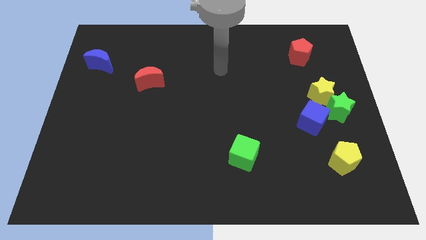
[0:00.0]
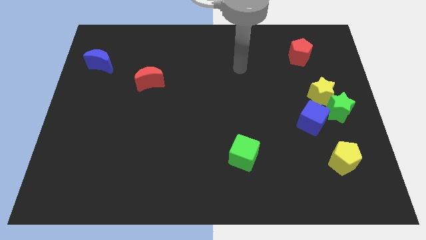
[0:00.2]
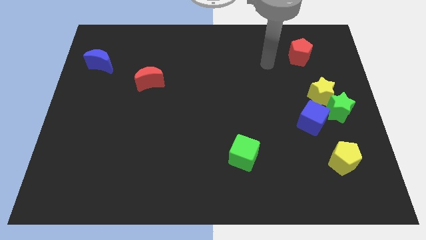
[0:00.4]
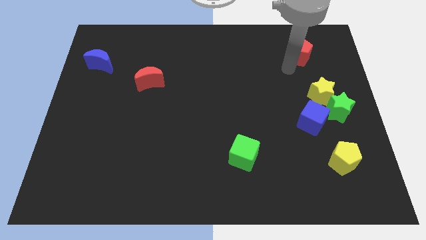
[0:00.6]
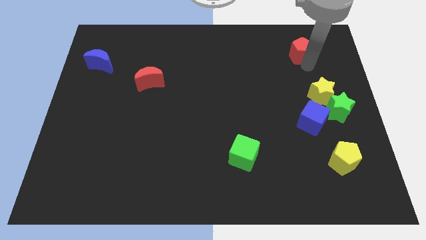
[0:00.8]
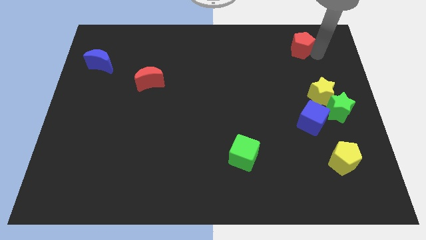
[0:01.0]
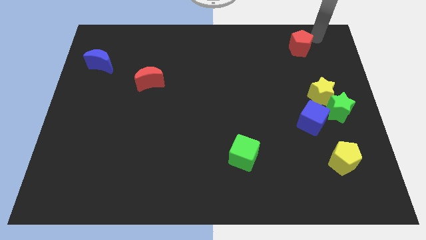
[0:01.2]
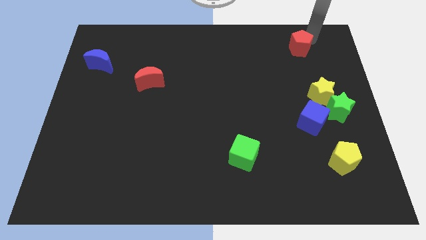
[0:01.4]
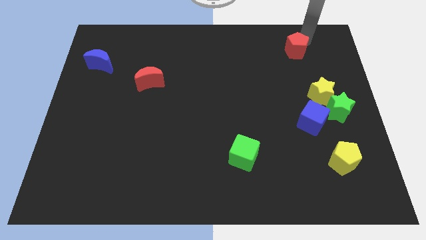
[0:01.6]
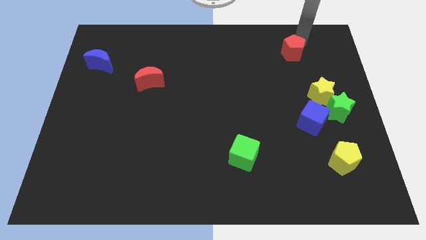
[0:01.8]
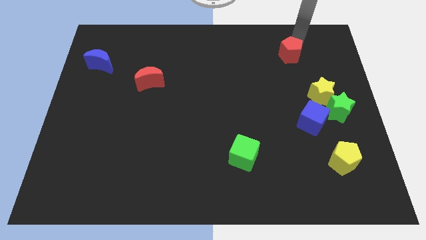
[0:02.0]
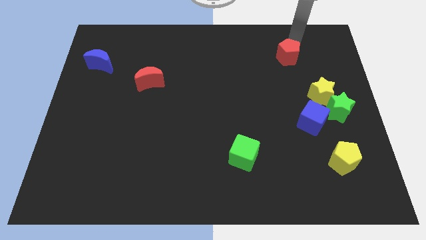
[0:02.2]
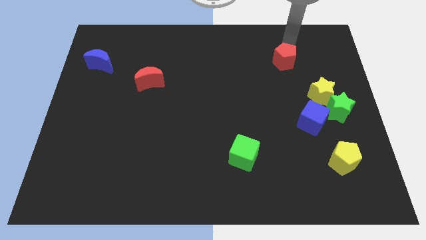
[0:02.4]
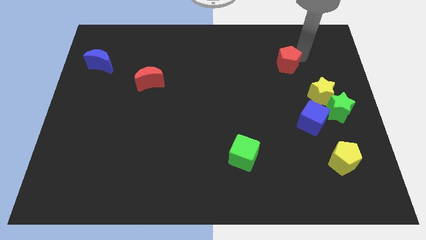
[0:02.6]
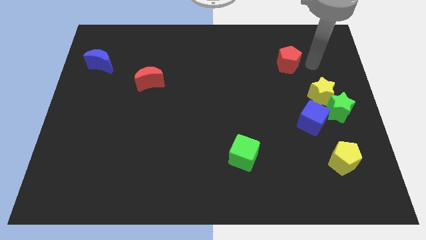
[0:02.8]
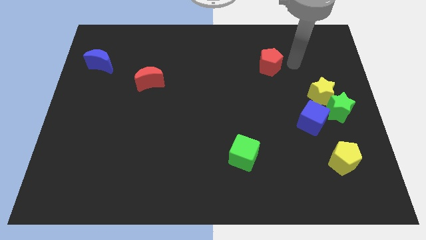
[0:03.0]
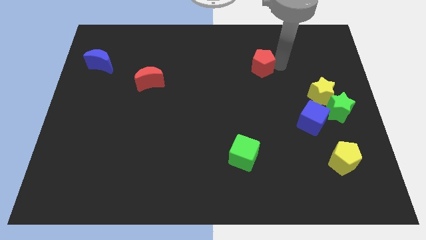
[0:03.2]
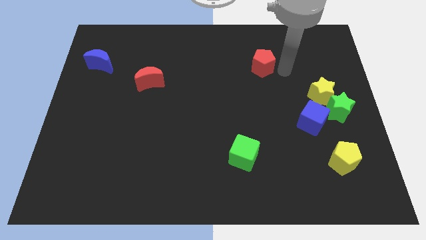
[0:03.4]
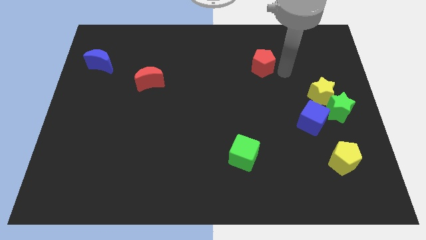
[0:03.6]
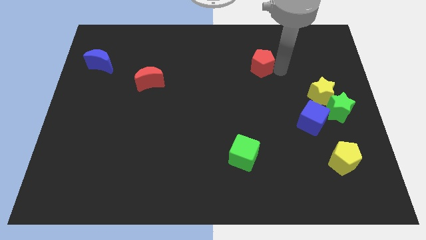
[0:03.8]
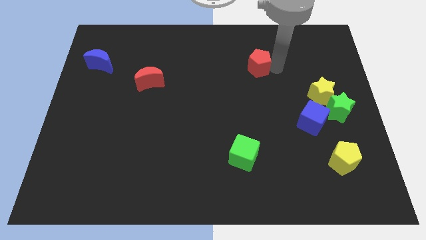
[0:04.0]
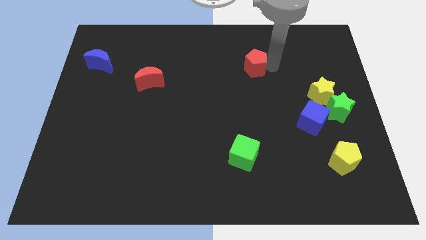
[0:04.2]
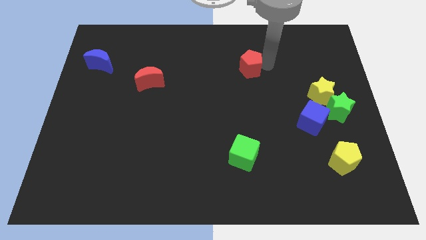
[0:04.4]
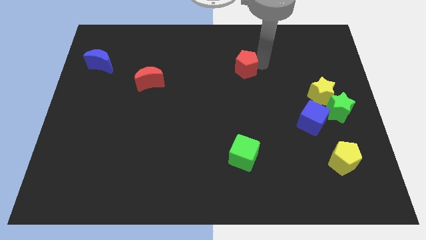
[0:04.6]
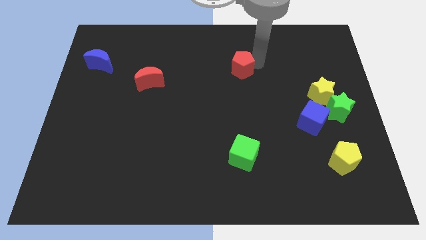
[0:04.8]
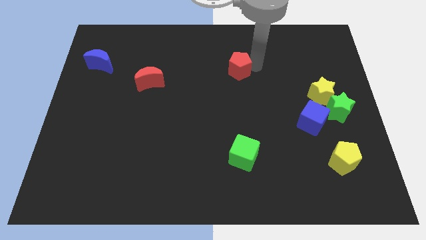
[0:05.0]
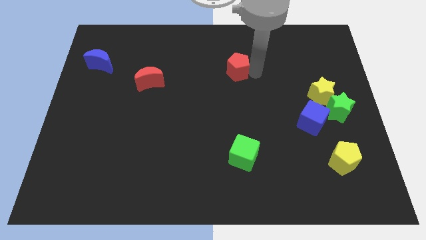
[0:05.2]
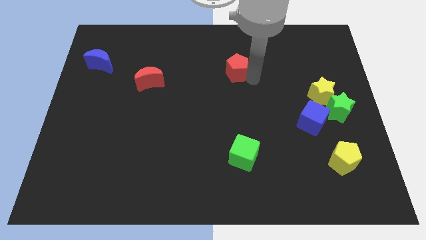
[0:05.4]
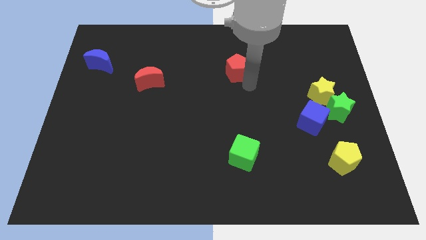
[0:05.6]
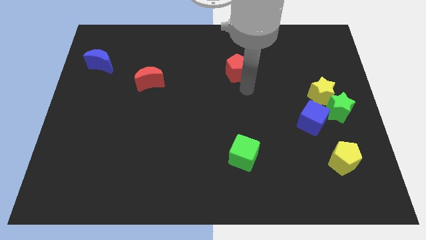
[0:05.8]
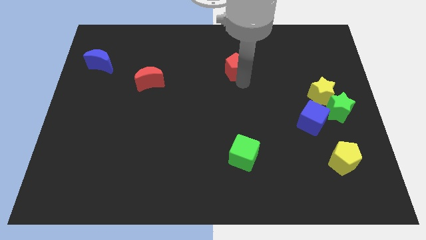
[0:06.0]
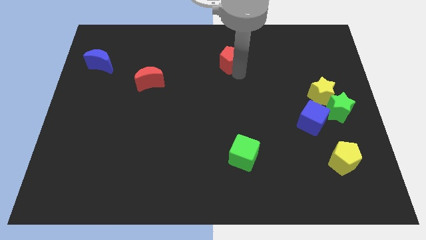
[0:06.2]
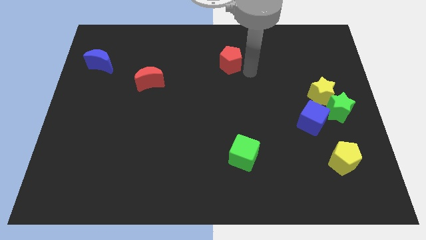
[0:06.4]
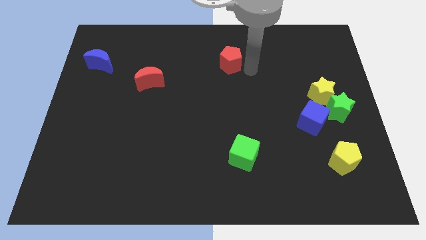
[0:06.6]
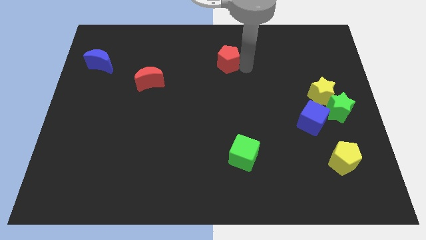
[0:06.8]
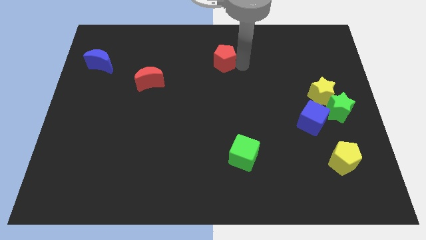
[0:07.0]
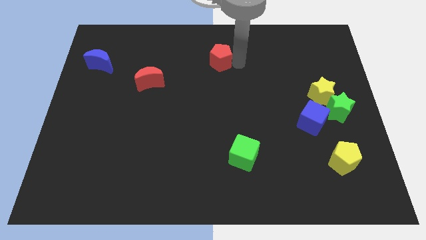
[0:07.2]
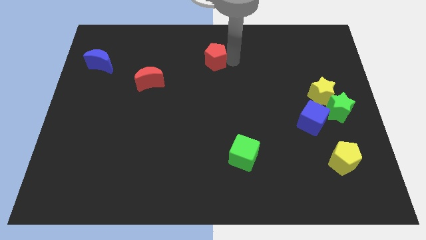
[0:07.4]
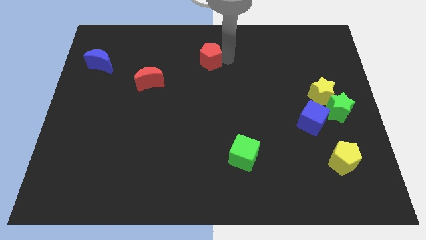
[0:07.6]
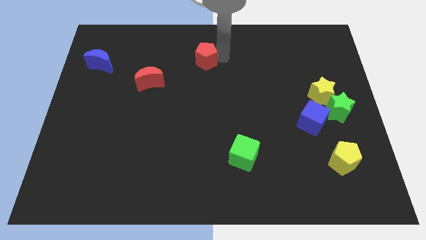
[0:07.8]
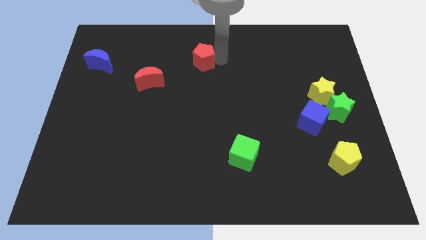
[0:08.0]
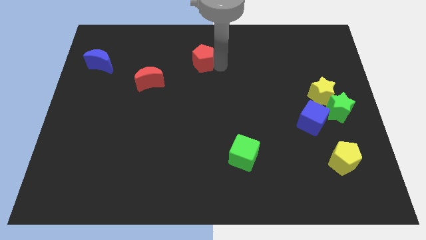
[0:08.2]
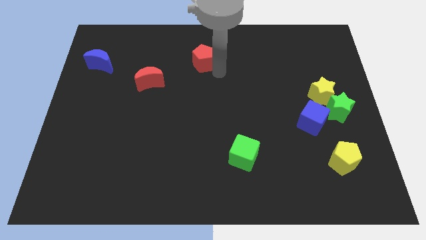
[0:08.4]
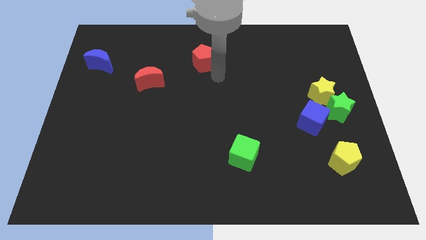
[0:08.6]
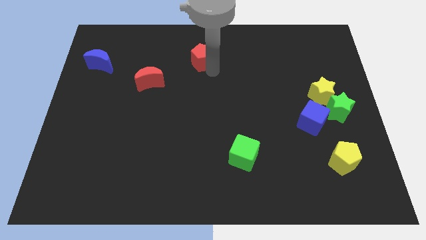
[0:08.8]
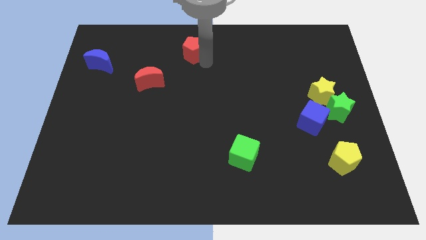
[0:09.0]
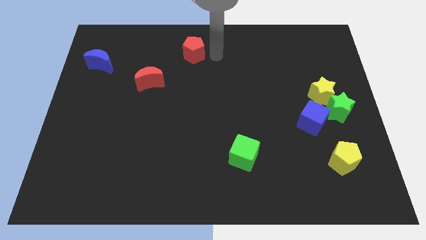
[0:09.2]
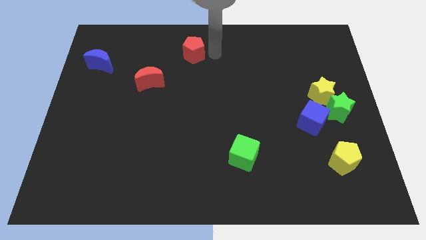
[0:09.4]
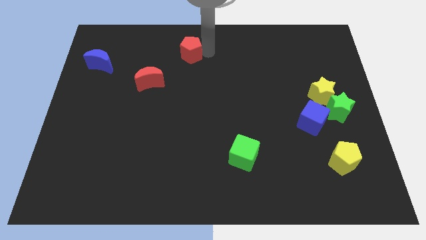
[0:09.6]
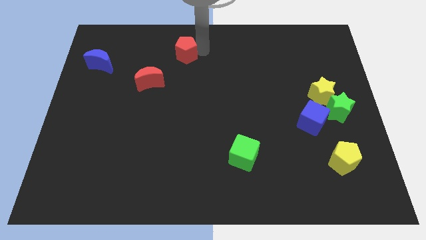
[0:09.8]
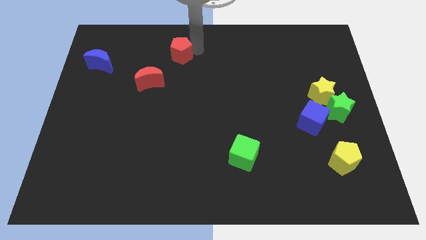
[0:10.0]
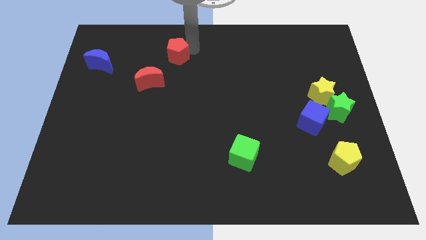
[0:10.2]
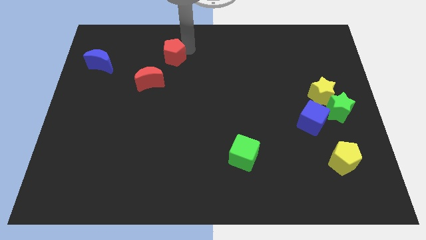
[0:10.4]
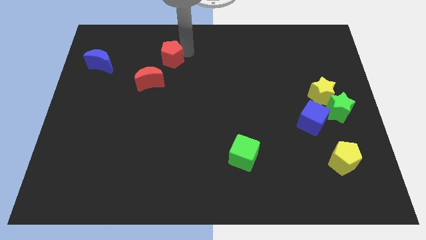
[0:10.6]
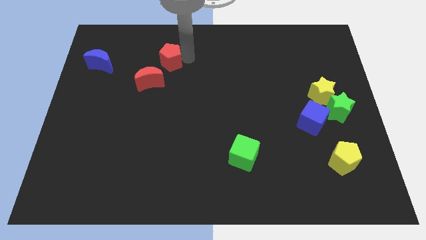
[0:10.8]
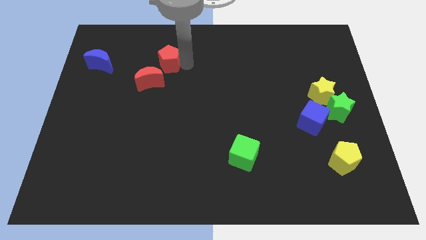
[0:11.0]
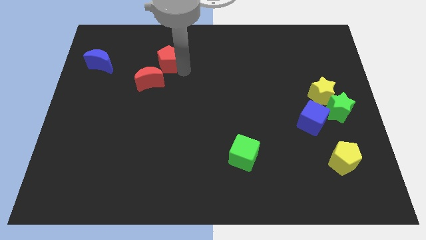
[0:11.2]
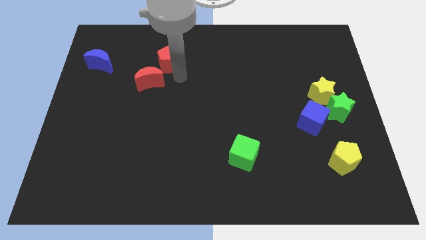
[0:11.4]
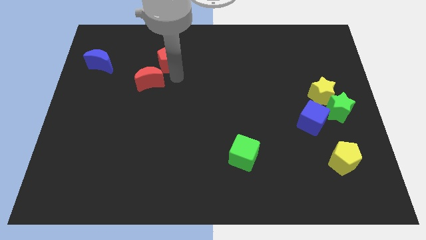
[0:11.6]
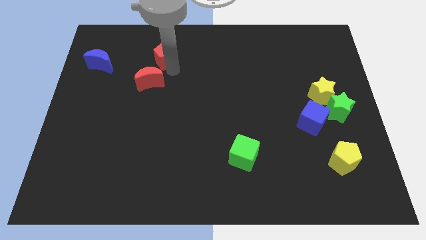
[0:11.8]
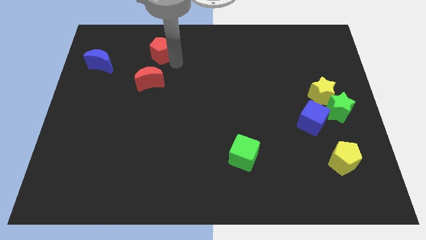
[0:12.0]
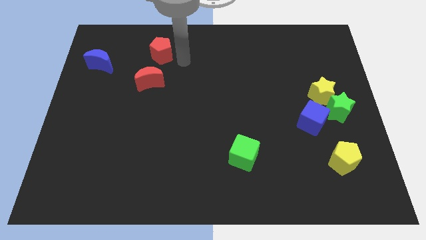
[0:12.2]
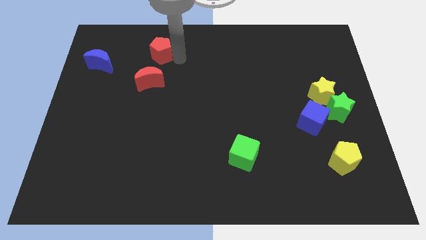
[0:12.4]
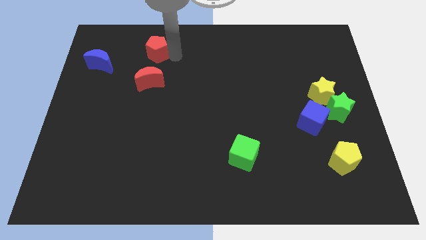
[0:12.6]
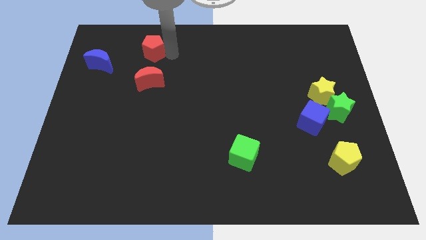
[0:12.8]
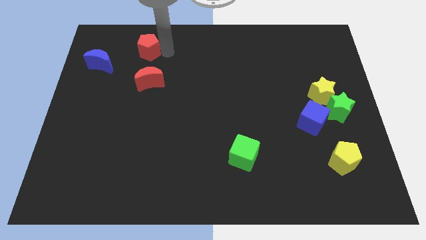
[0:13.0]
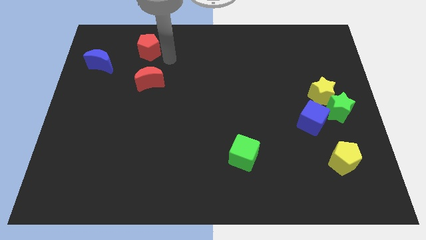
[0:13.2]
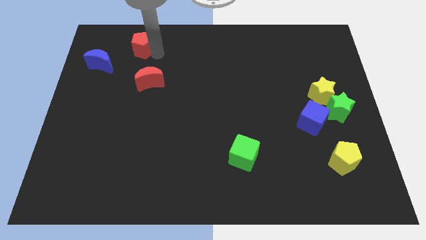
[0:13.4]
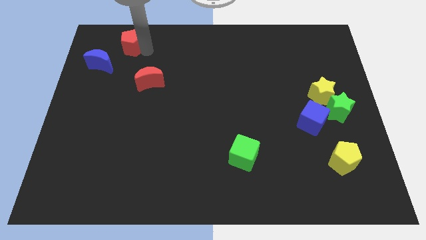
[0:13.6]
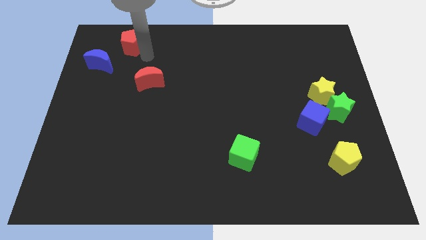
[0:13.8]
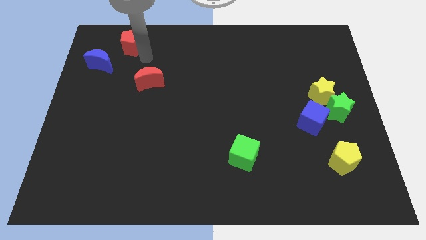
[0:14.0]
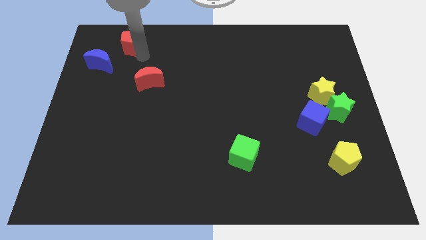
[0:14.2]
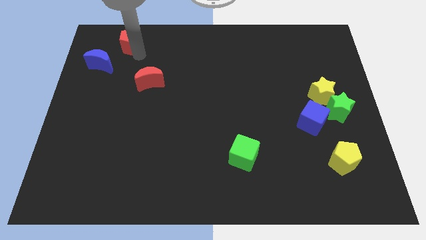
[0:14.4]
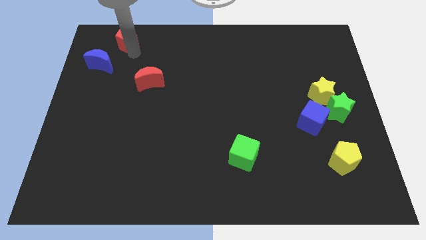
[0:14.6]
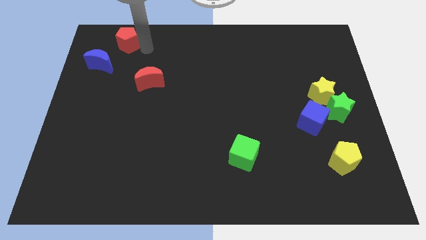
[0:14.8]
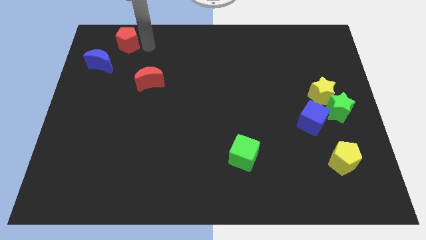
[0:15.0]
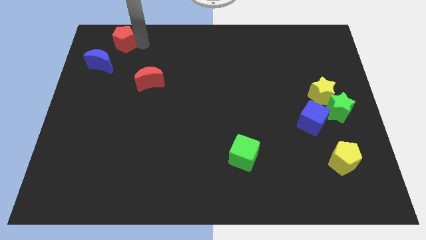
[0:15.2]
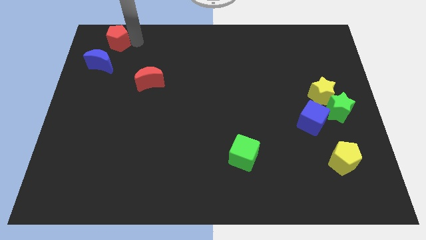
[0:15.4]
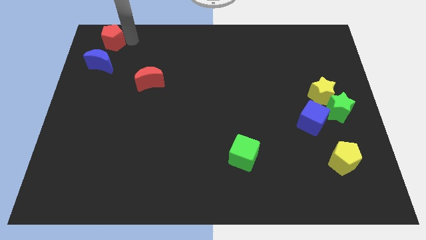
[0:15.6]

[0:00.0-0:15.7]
move the red pentagon to the top left of the board

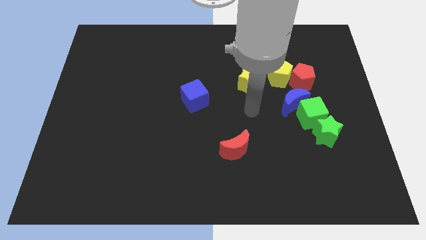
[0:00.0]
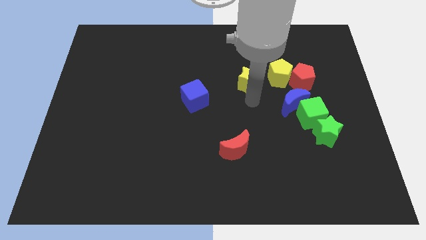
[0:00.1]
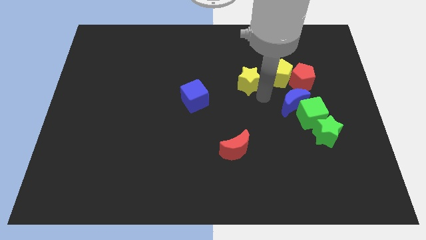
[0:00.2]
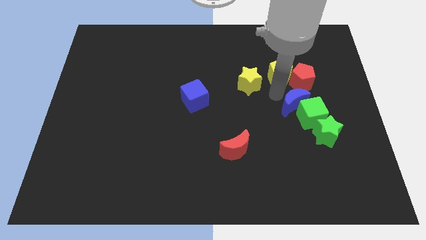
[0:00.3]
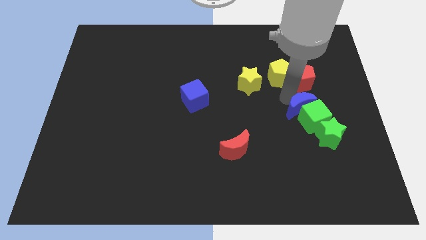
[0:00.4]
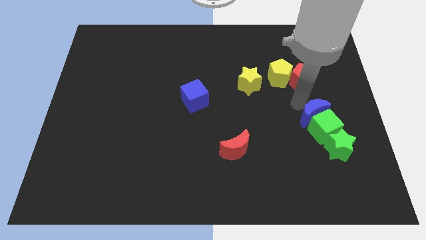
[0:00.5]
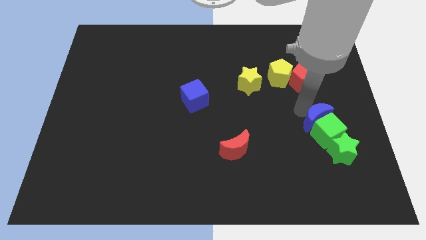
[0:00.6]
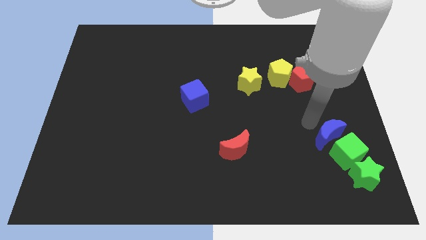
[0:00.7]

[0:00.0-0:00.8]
put the green star to the bottom right of the board
